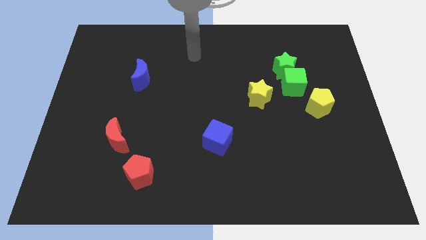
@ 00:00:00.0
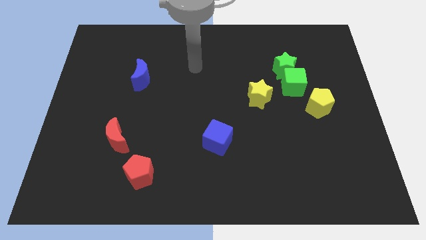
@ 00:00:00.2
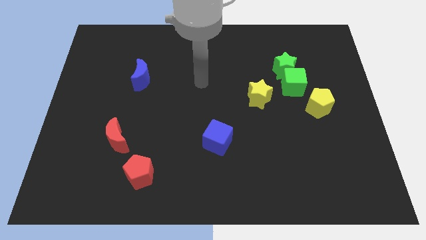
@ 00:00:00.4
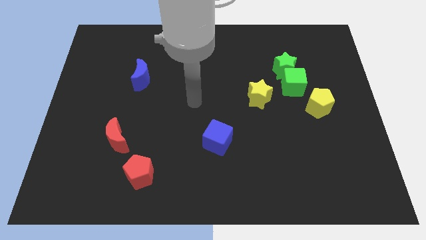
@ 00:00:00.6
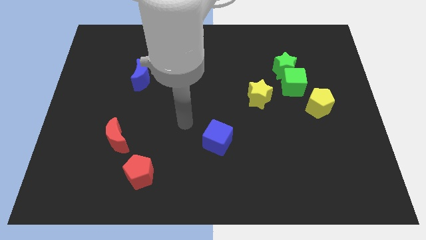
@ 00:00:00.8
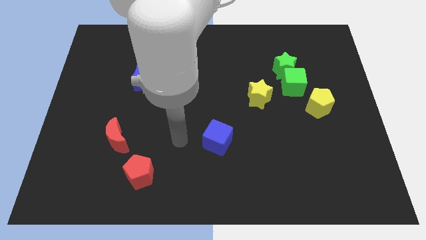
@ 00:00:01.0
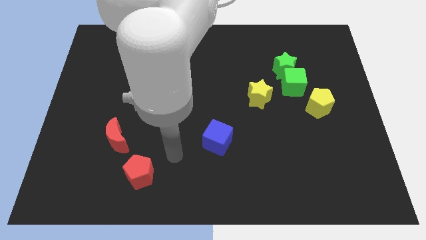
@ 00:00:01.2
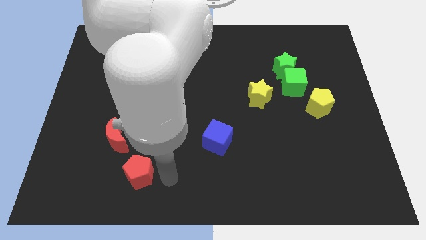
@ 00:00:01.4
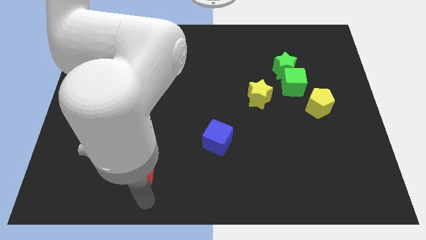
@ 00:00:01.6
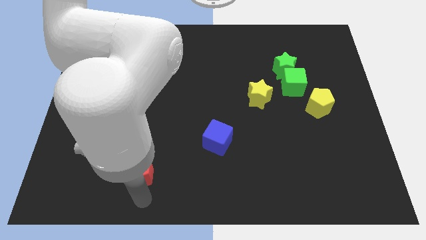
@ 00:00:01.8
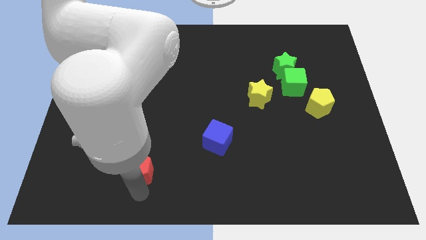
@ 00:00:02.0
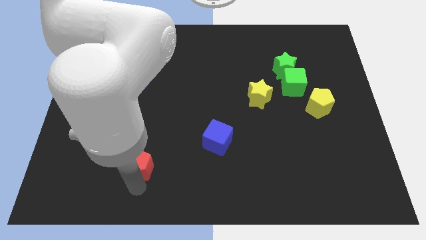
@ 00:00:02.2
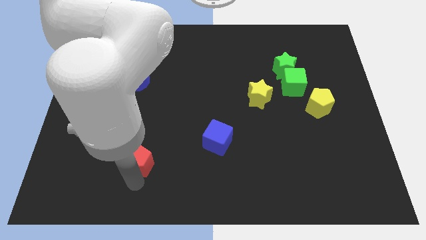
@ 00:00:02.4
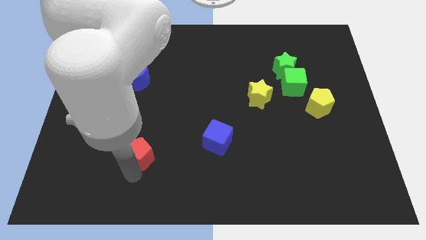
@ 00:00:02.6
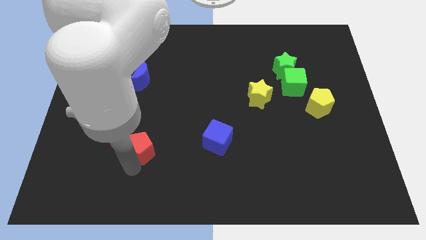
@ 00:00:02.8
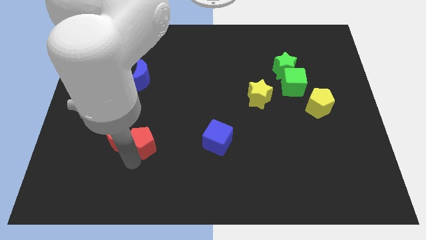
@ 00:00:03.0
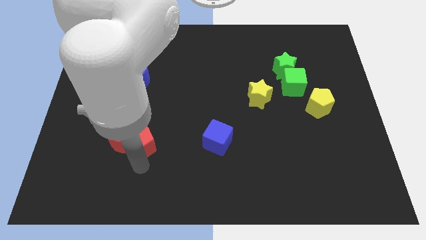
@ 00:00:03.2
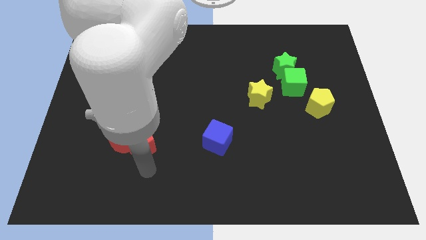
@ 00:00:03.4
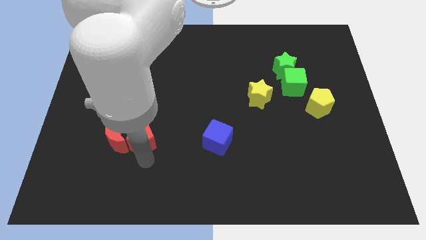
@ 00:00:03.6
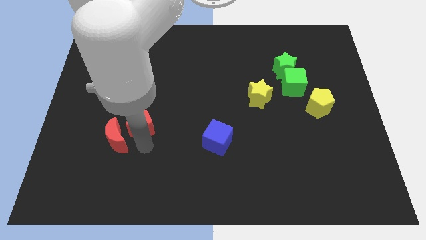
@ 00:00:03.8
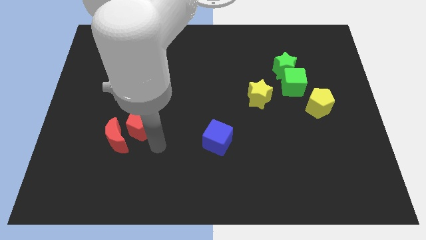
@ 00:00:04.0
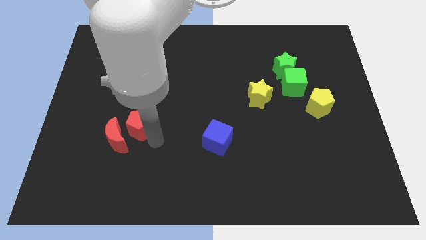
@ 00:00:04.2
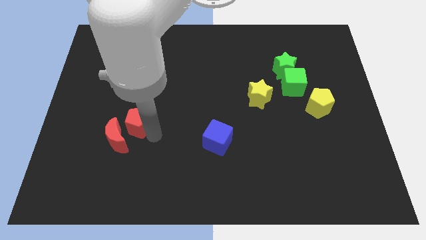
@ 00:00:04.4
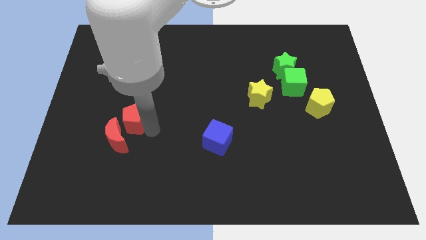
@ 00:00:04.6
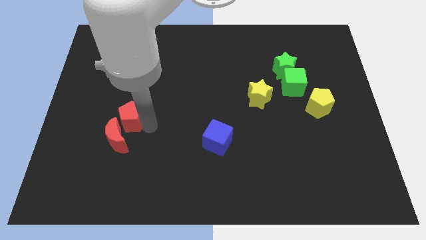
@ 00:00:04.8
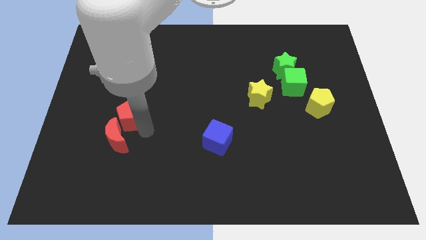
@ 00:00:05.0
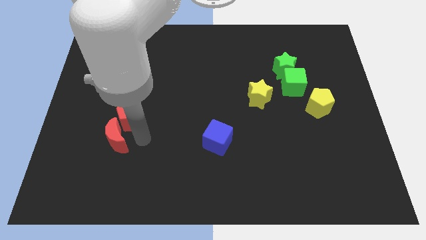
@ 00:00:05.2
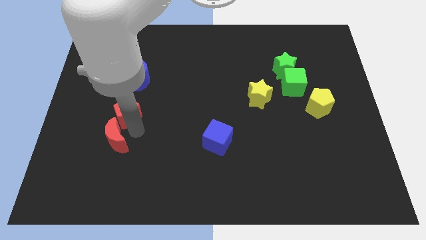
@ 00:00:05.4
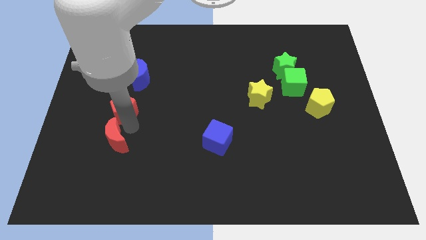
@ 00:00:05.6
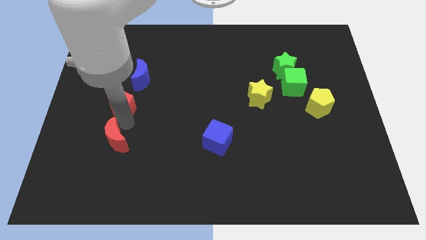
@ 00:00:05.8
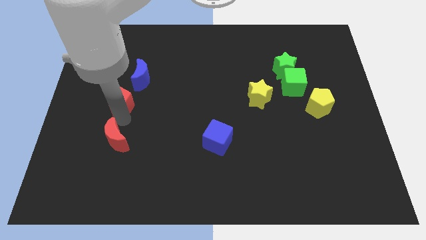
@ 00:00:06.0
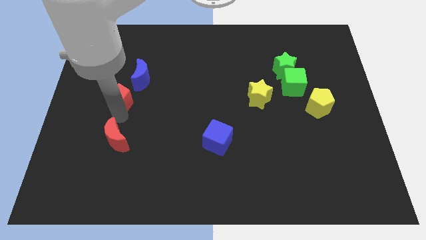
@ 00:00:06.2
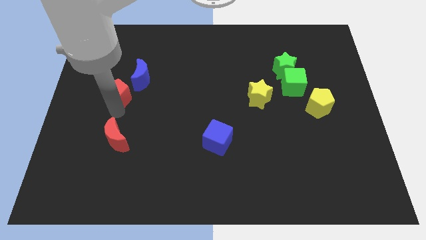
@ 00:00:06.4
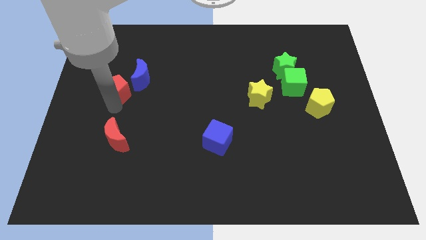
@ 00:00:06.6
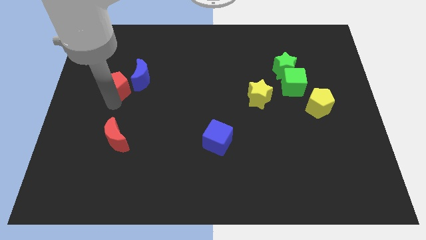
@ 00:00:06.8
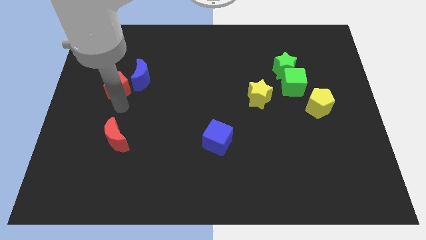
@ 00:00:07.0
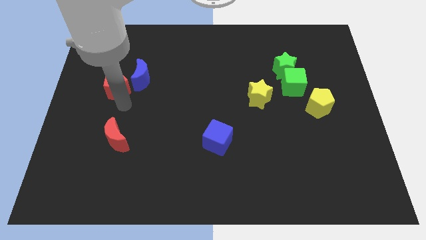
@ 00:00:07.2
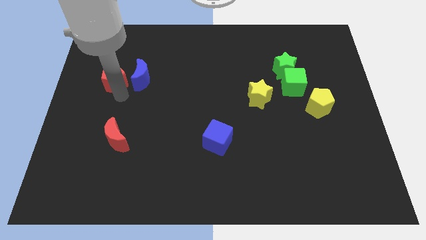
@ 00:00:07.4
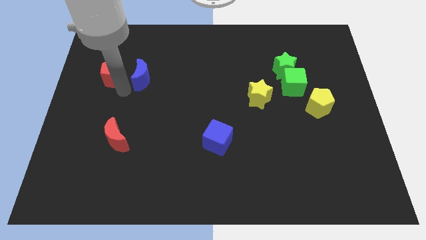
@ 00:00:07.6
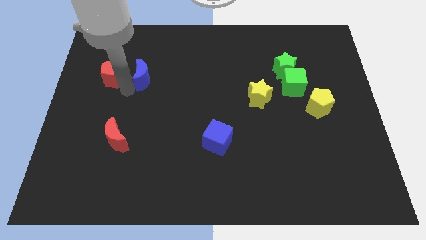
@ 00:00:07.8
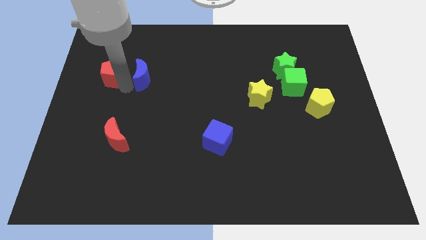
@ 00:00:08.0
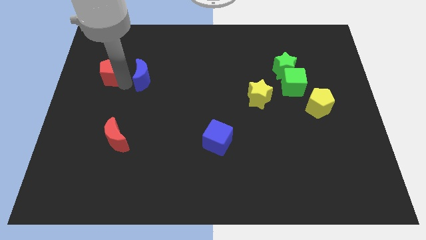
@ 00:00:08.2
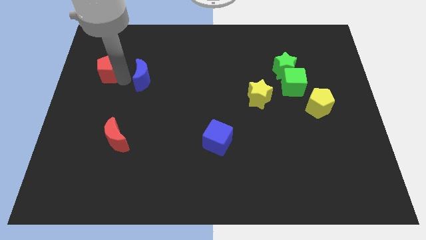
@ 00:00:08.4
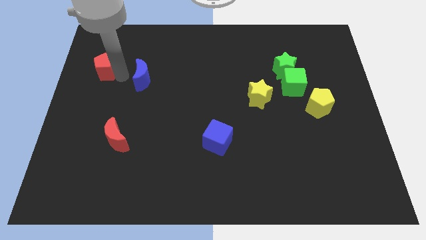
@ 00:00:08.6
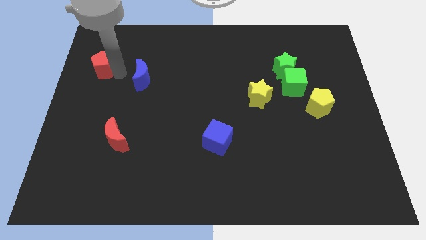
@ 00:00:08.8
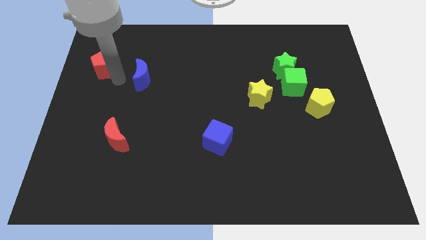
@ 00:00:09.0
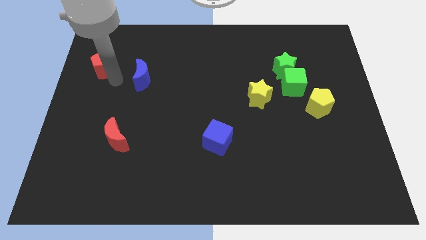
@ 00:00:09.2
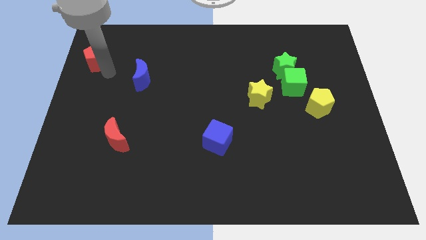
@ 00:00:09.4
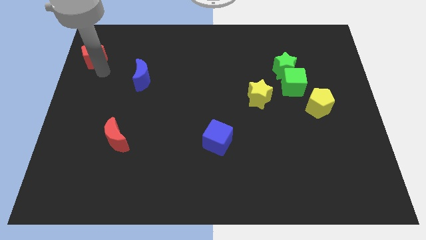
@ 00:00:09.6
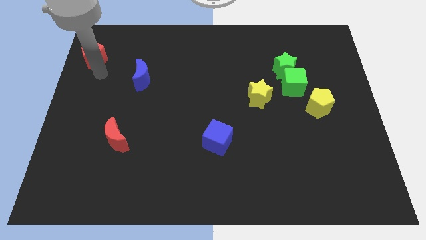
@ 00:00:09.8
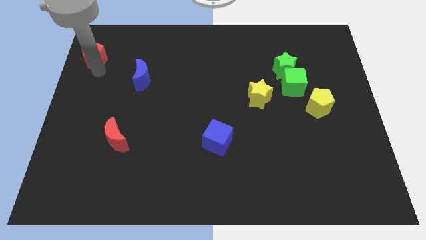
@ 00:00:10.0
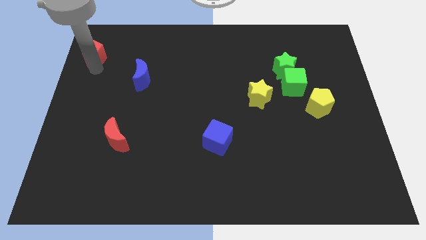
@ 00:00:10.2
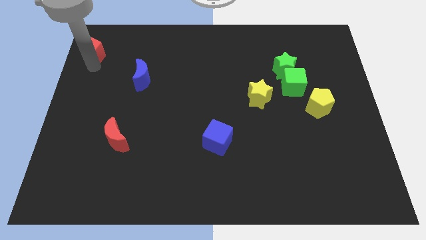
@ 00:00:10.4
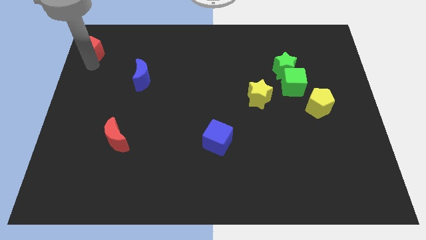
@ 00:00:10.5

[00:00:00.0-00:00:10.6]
put the red pentagon to the top left of the board

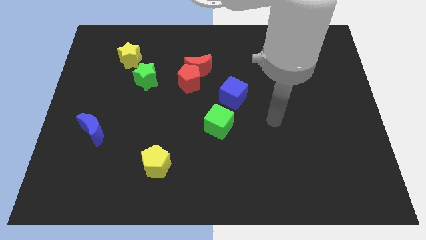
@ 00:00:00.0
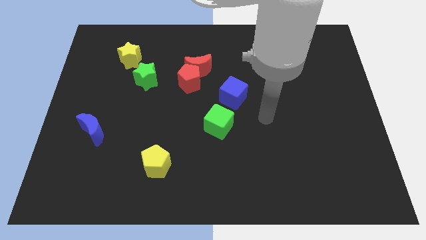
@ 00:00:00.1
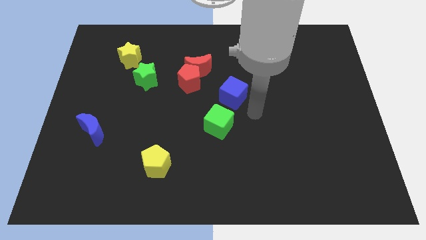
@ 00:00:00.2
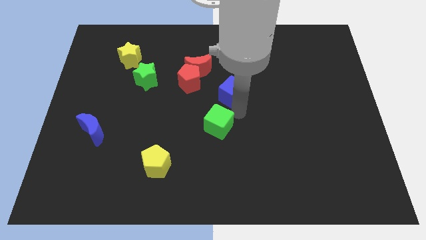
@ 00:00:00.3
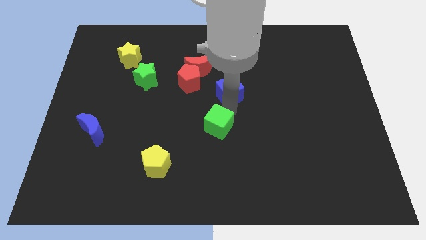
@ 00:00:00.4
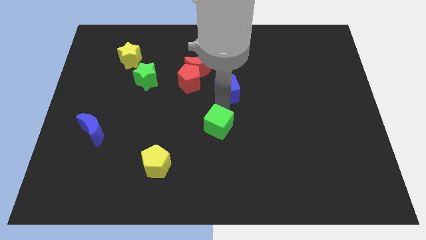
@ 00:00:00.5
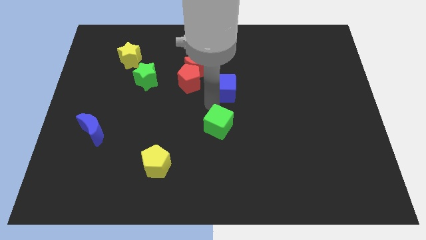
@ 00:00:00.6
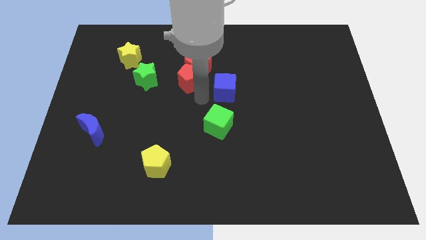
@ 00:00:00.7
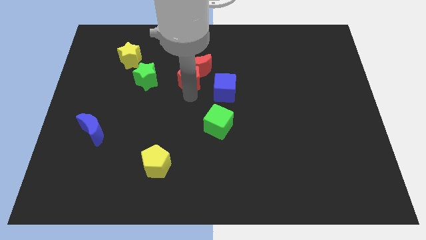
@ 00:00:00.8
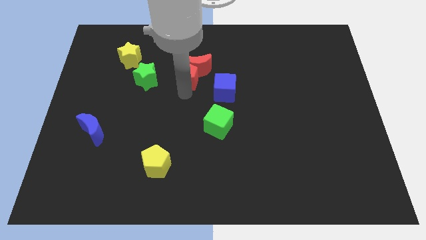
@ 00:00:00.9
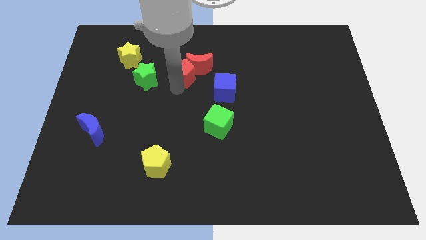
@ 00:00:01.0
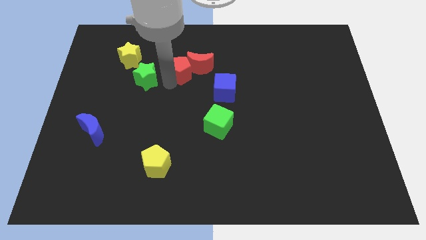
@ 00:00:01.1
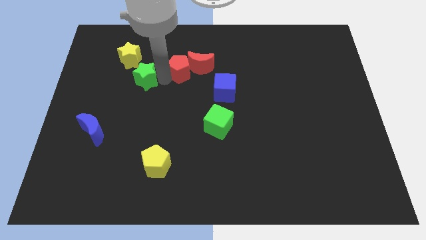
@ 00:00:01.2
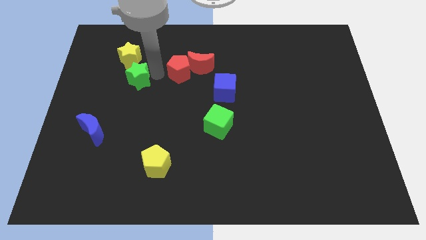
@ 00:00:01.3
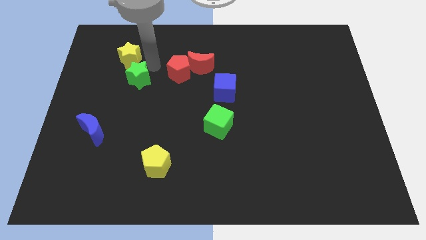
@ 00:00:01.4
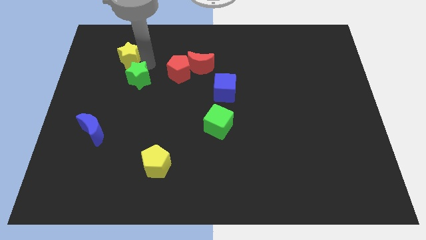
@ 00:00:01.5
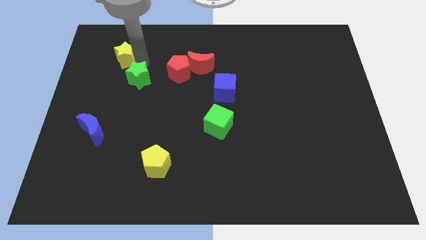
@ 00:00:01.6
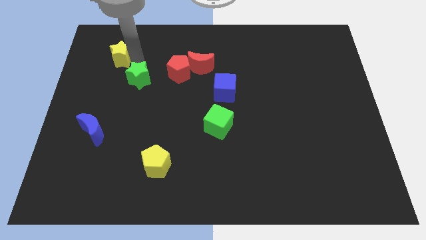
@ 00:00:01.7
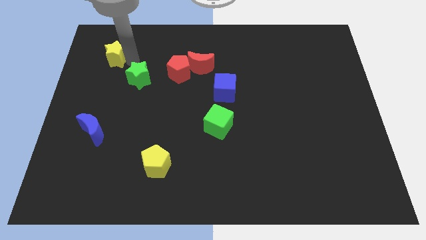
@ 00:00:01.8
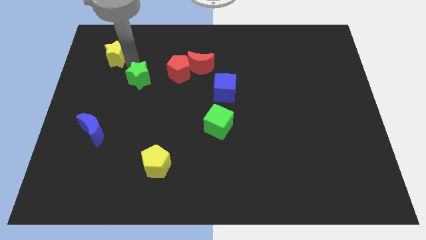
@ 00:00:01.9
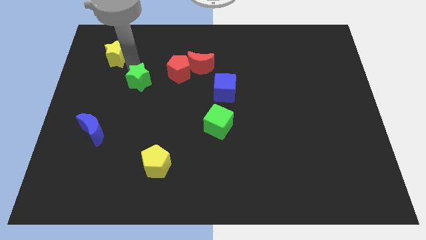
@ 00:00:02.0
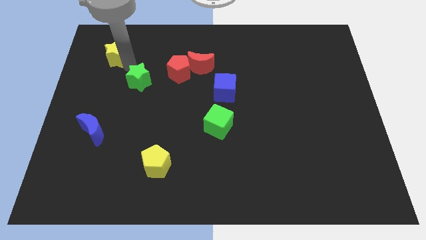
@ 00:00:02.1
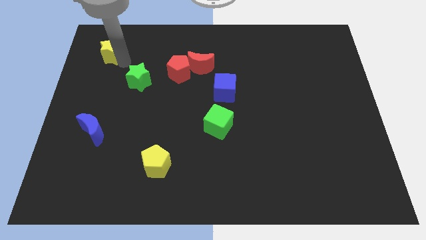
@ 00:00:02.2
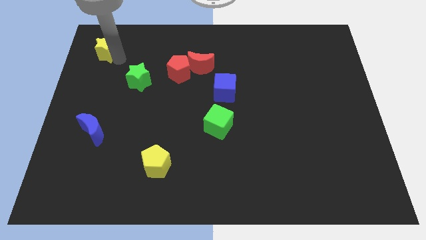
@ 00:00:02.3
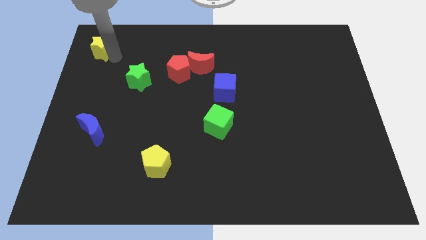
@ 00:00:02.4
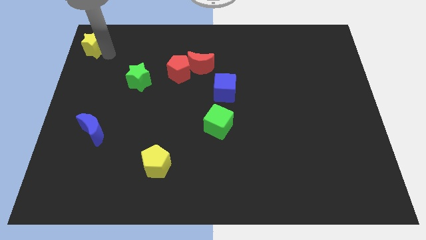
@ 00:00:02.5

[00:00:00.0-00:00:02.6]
slide the yellow star to the top left
